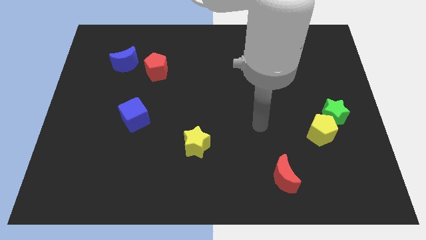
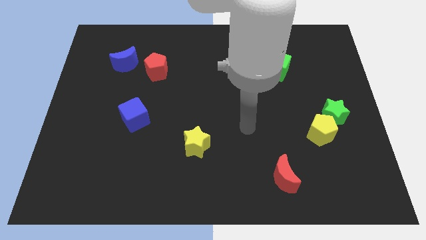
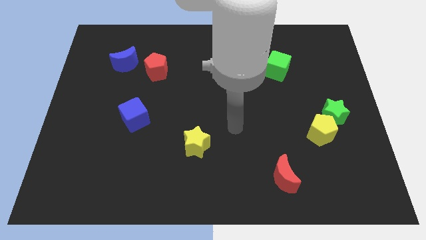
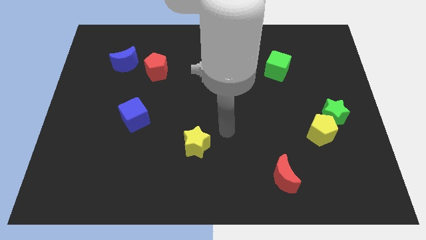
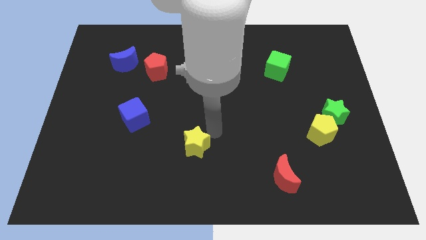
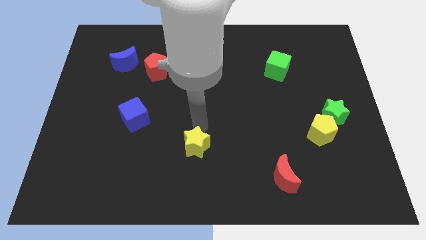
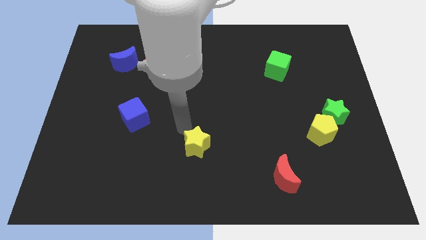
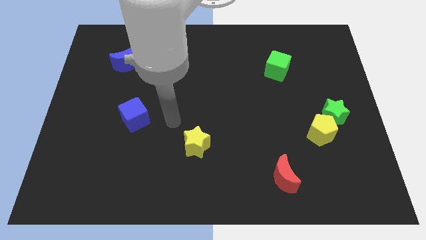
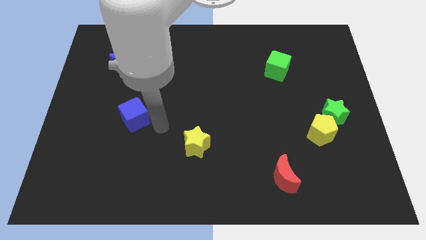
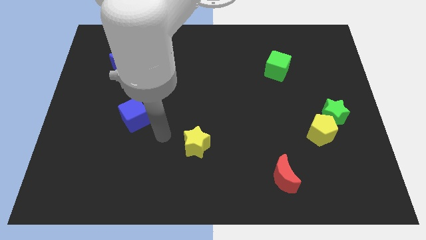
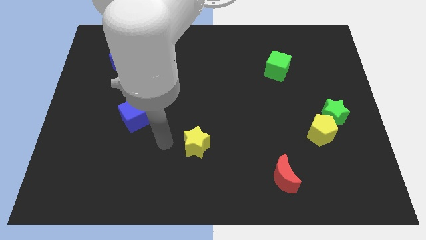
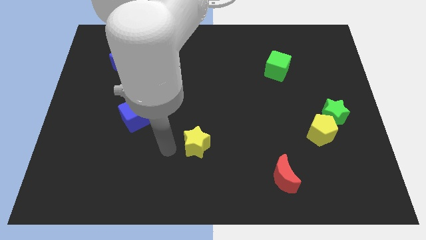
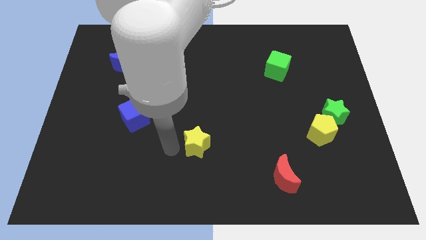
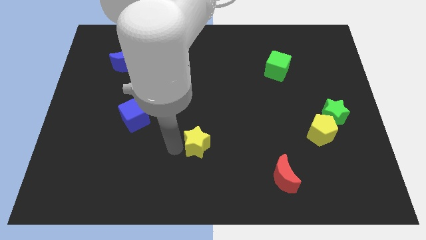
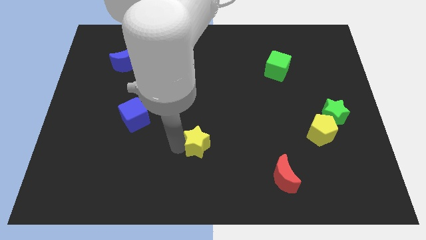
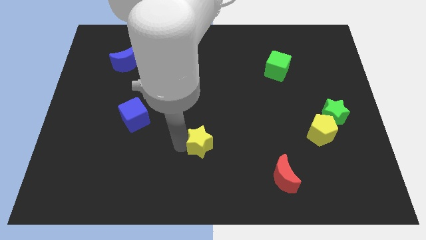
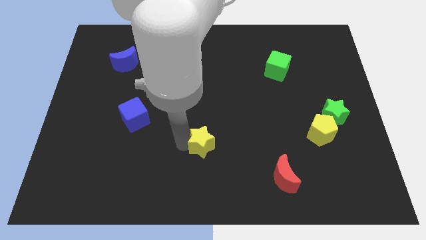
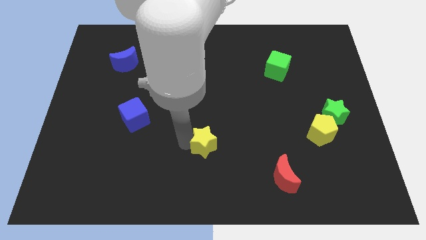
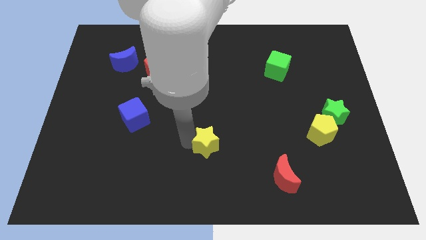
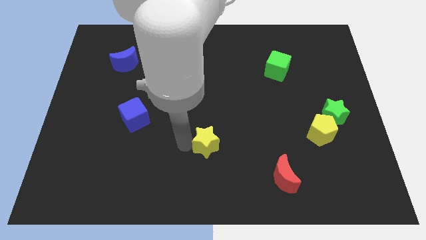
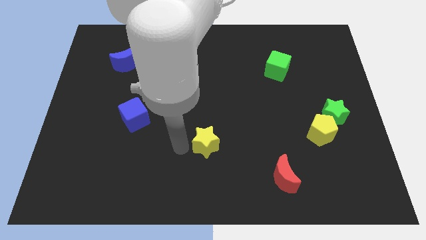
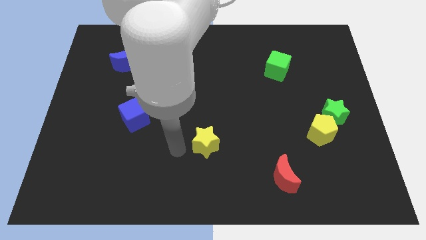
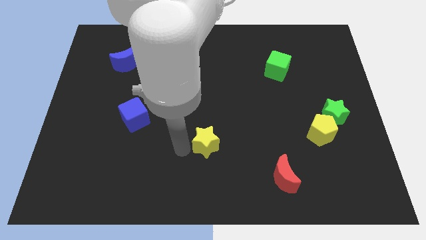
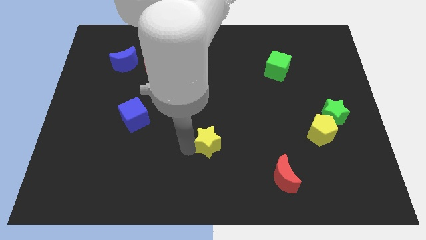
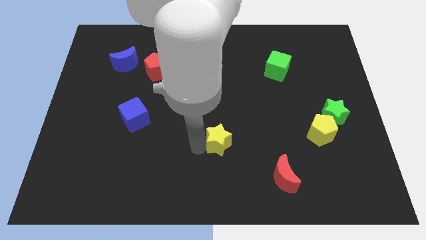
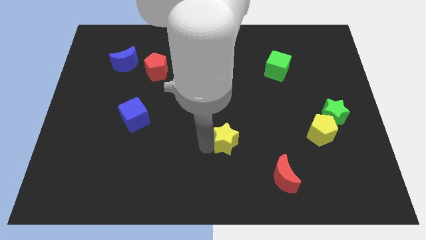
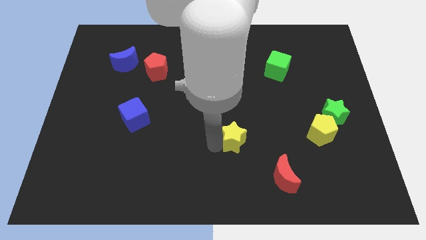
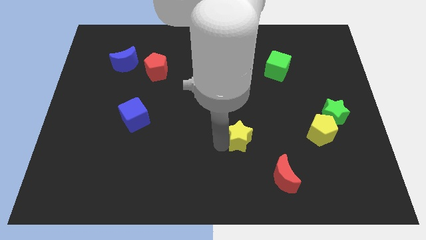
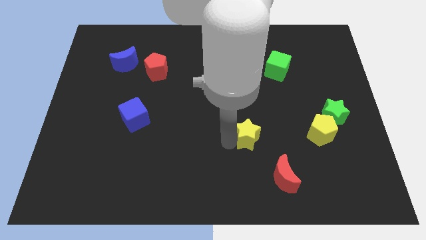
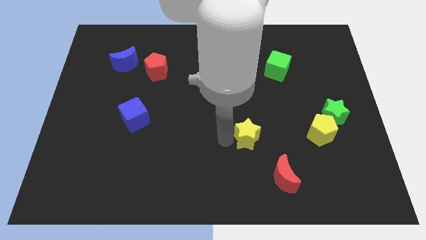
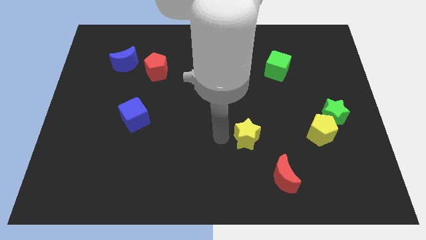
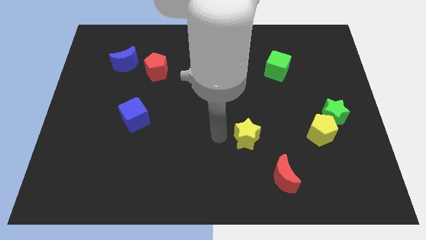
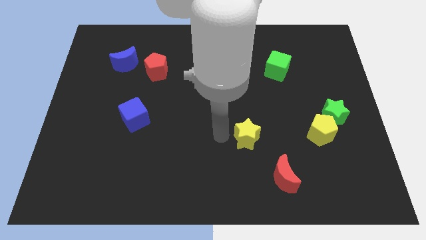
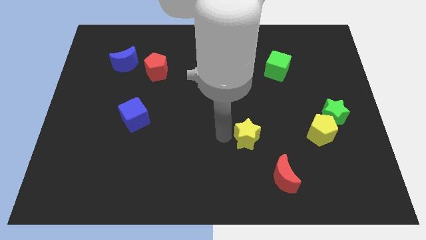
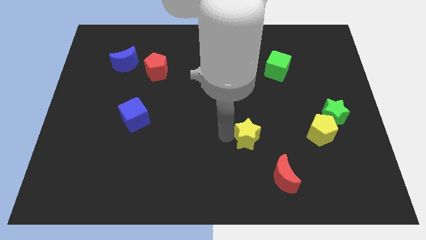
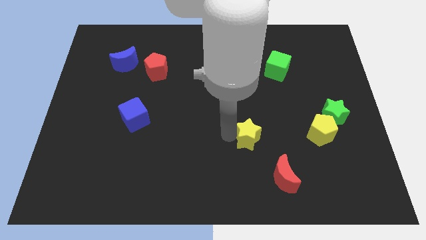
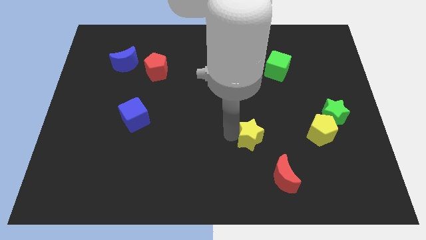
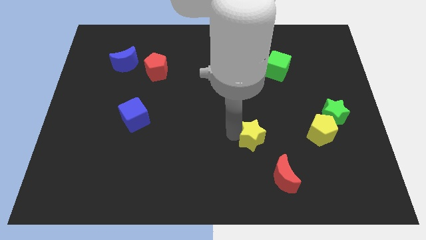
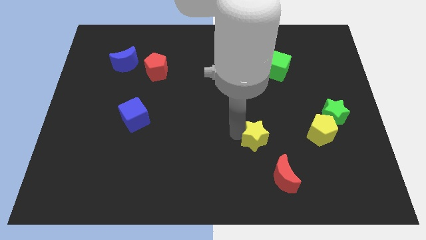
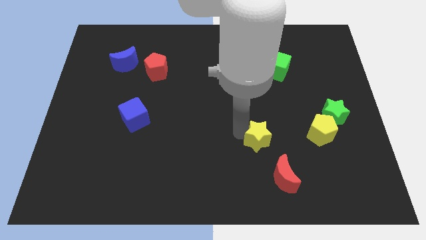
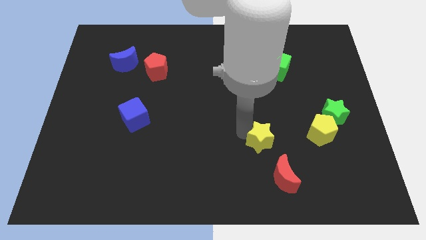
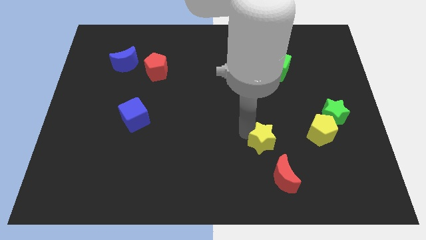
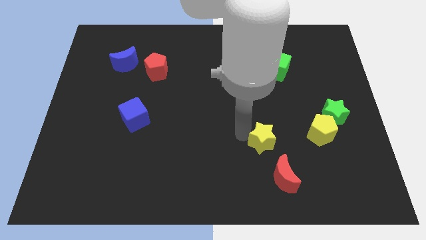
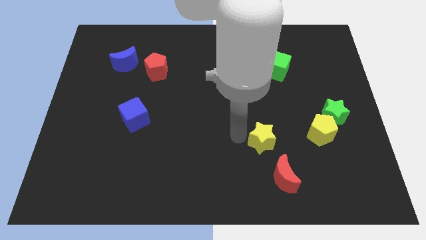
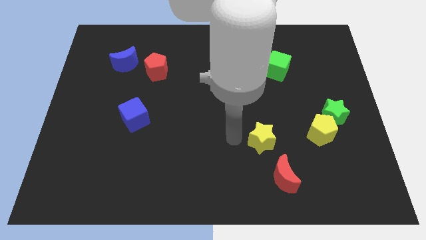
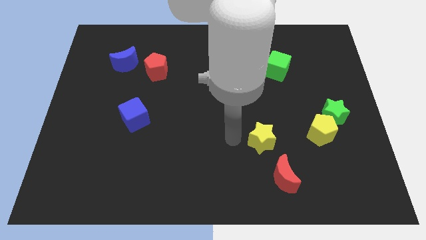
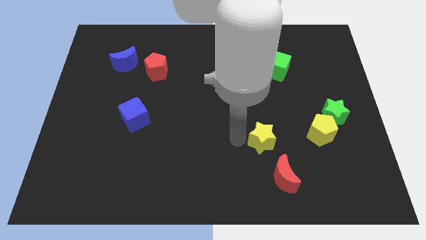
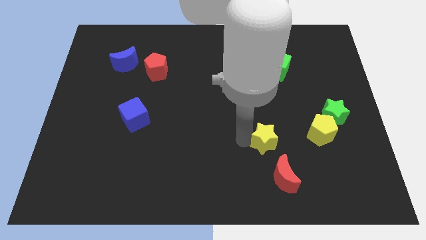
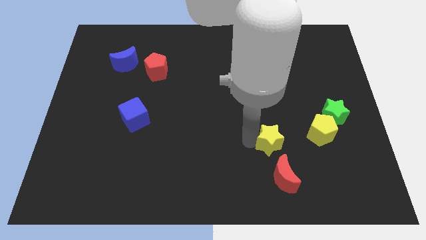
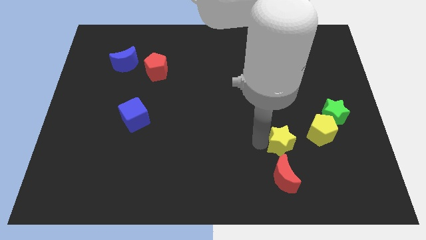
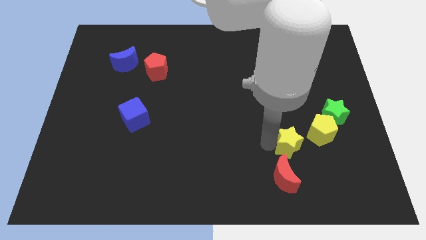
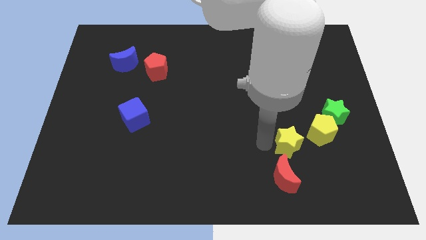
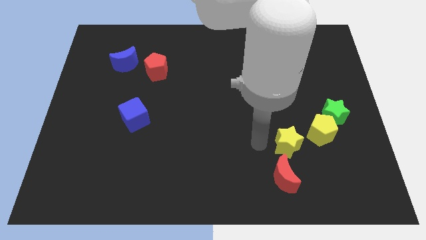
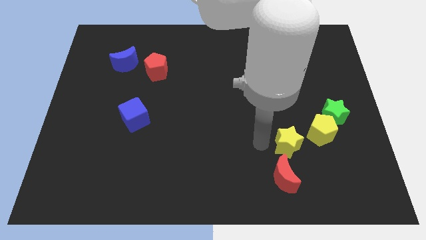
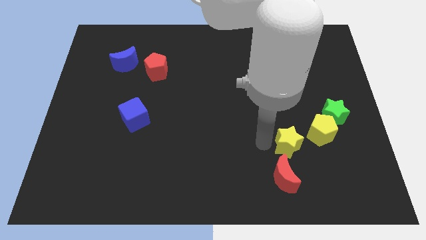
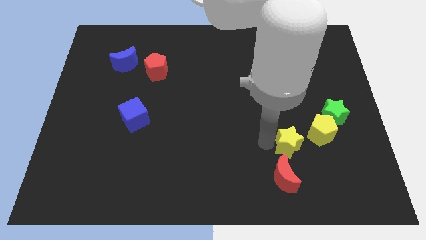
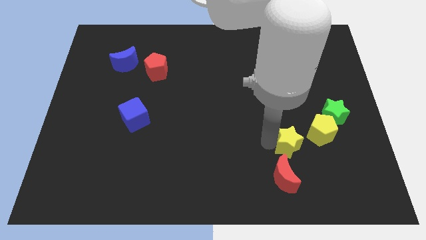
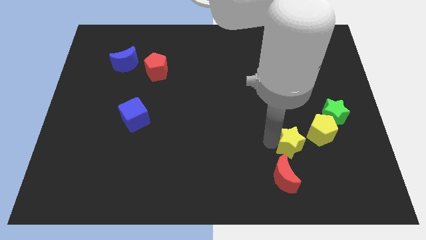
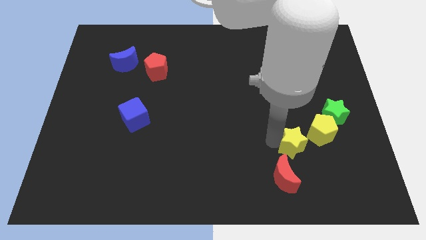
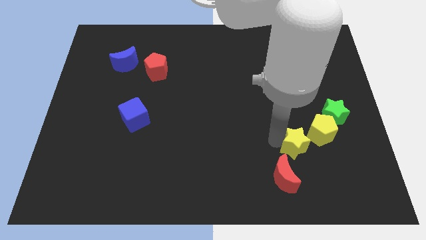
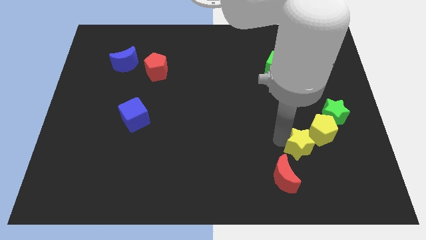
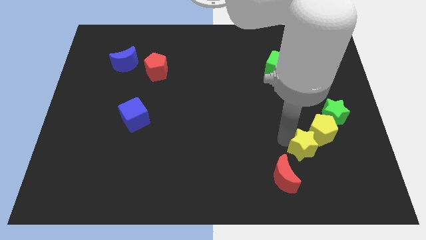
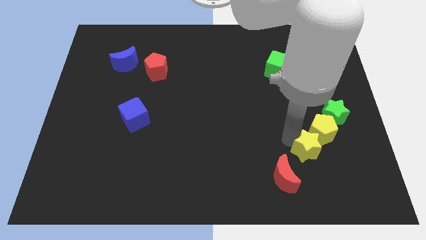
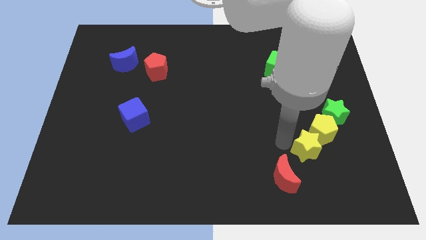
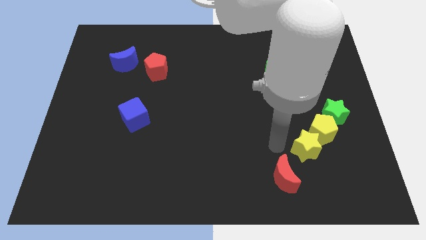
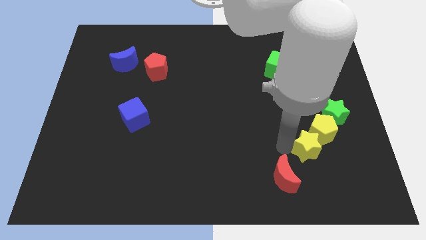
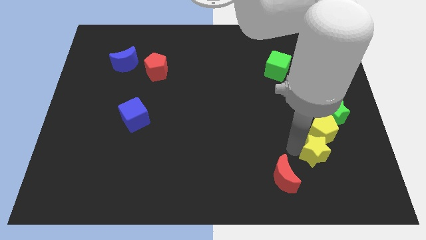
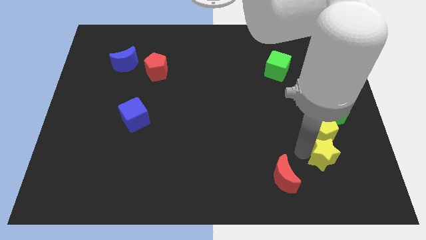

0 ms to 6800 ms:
put the yellow star below the green star
